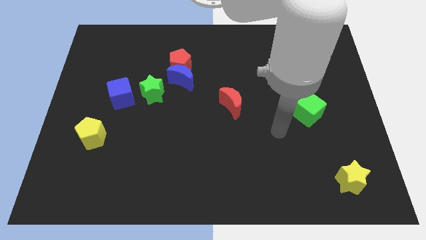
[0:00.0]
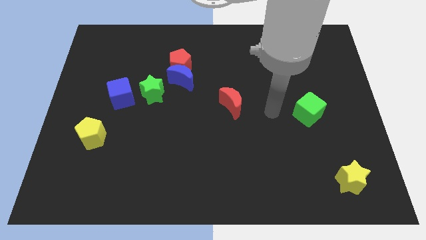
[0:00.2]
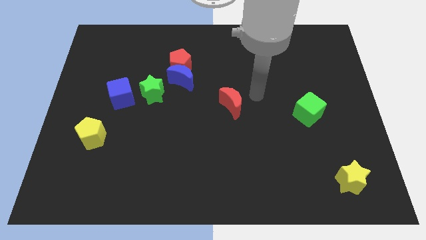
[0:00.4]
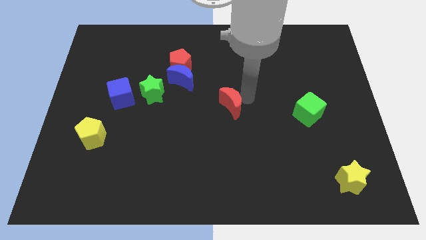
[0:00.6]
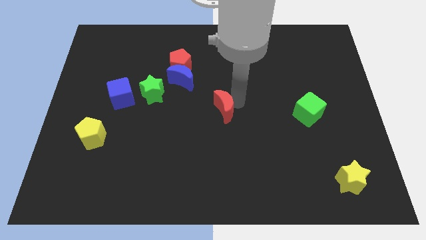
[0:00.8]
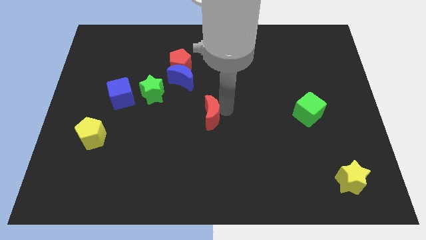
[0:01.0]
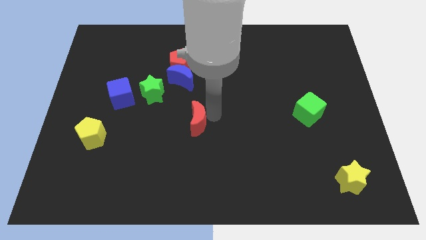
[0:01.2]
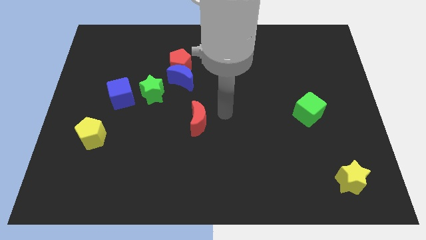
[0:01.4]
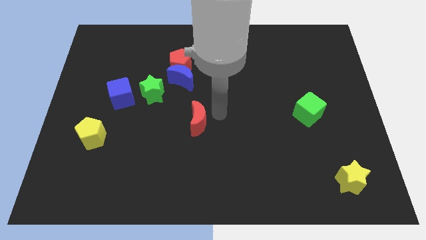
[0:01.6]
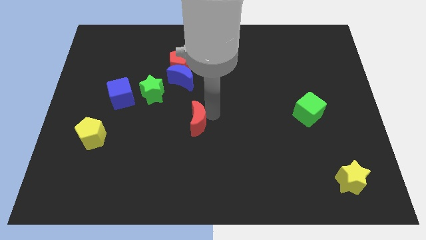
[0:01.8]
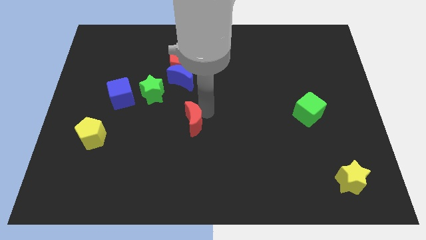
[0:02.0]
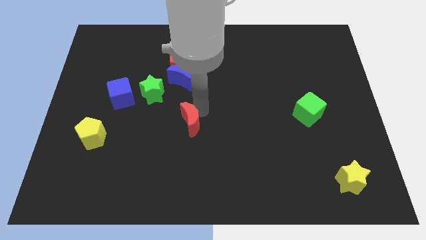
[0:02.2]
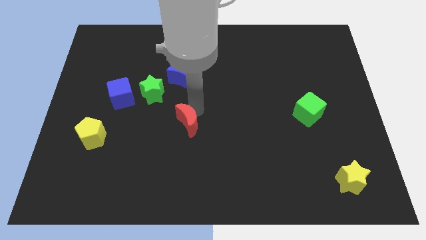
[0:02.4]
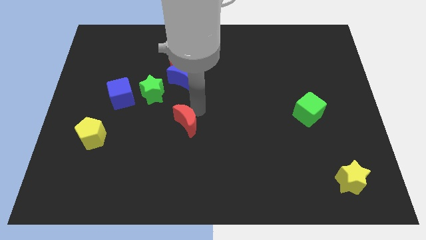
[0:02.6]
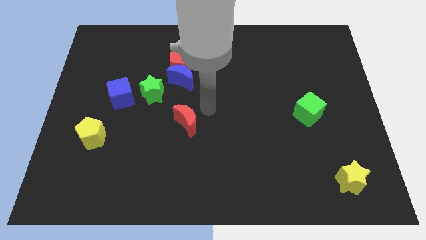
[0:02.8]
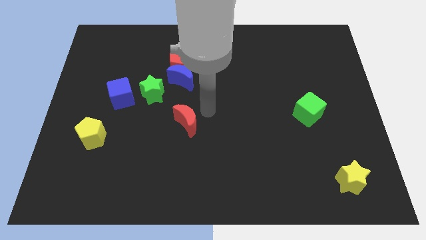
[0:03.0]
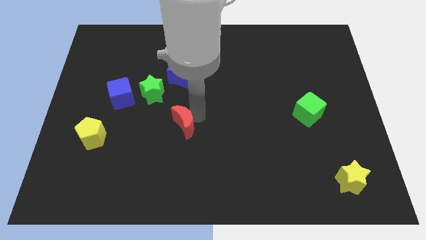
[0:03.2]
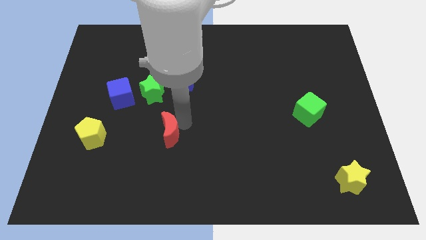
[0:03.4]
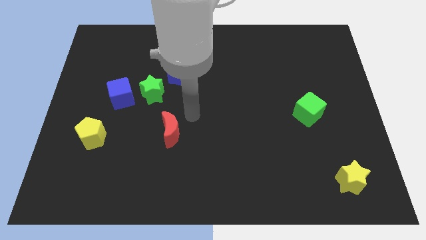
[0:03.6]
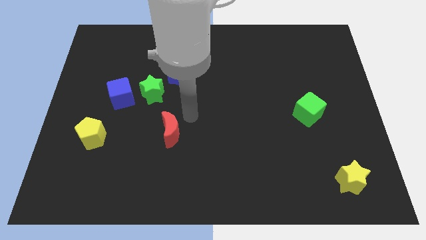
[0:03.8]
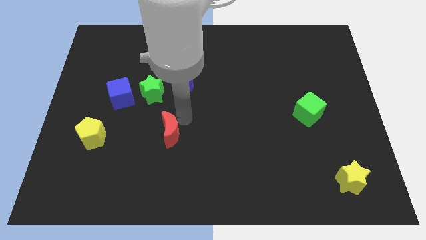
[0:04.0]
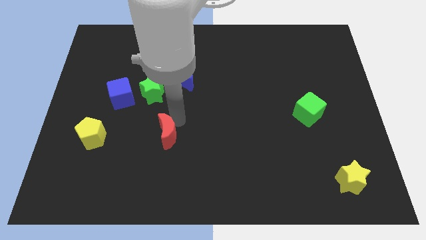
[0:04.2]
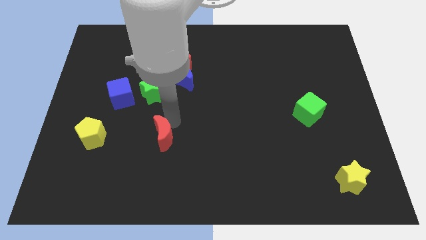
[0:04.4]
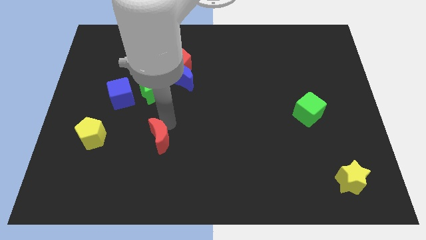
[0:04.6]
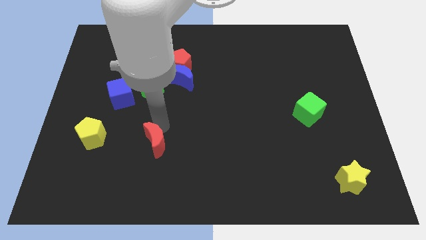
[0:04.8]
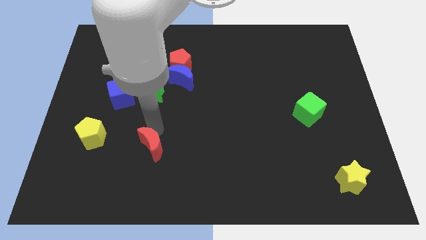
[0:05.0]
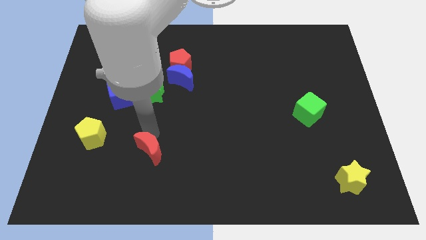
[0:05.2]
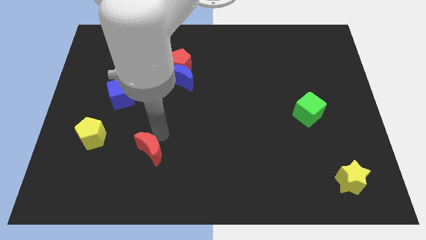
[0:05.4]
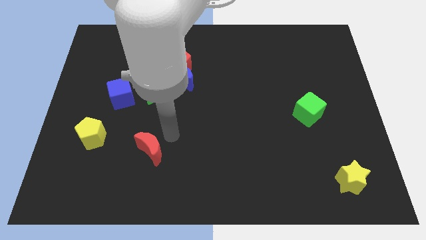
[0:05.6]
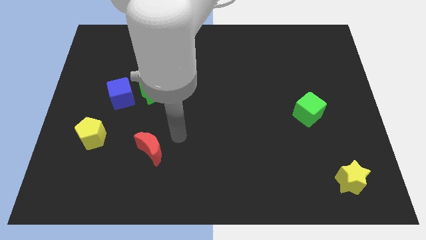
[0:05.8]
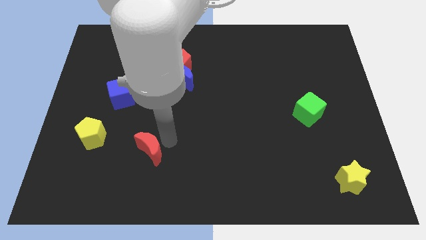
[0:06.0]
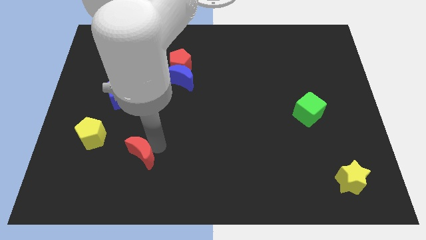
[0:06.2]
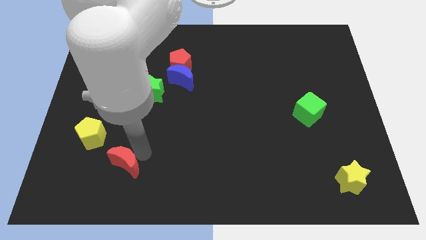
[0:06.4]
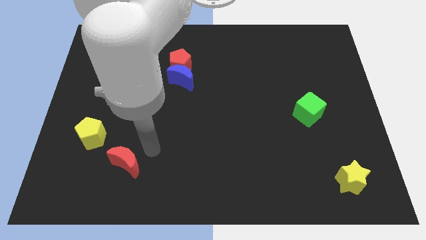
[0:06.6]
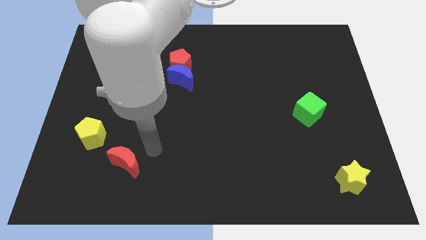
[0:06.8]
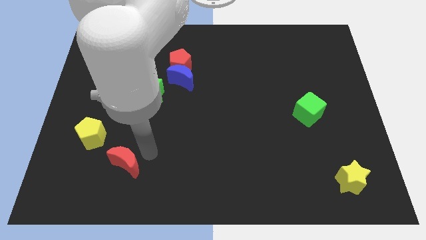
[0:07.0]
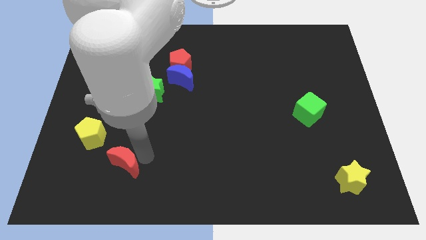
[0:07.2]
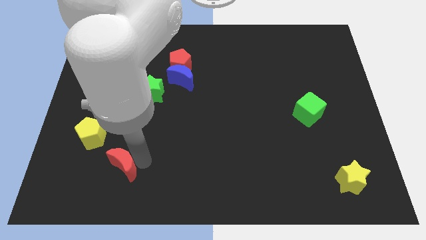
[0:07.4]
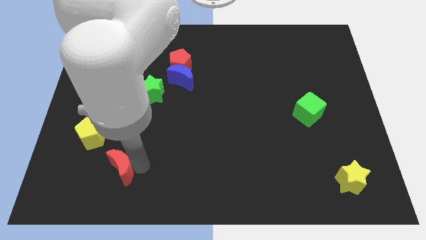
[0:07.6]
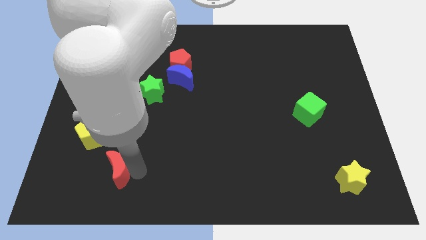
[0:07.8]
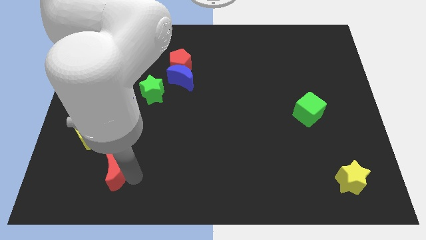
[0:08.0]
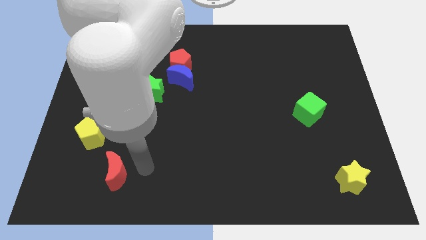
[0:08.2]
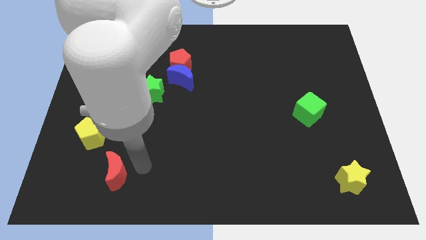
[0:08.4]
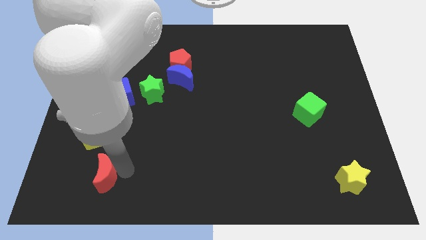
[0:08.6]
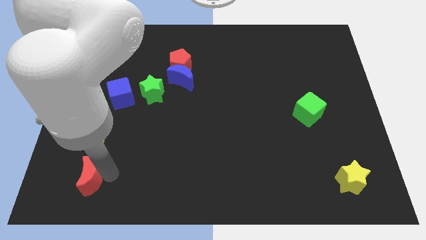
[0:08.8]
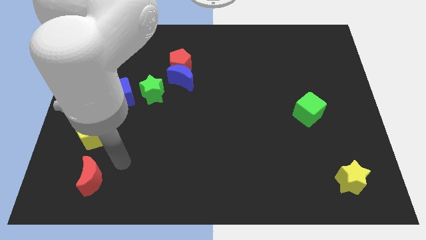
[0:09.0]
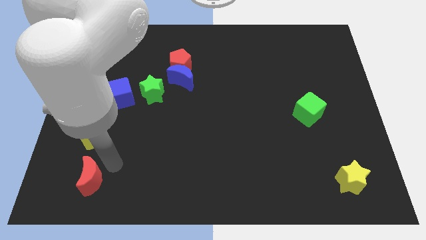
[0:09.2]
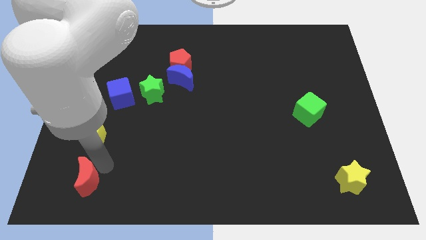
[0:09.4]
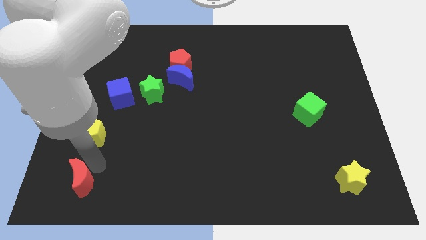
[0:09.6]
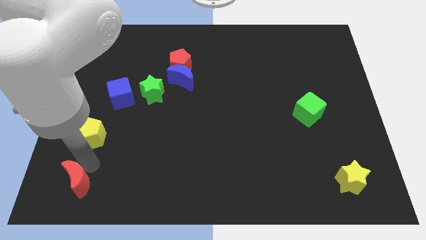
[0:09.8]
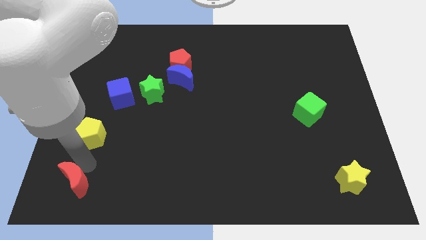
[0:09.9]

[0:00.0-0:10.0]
push the red moon to the bottom left
